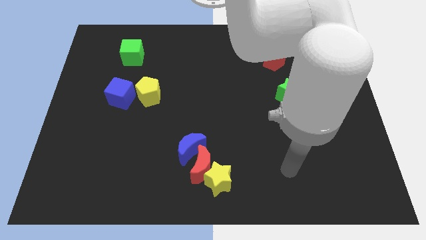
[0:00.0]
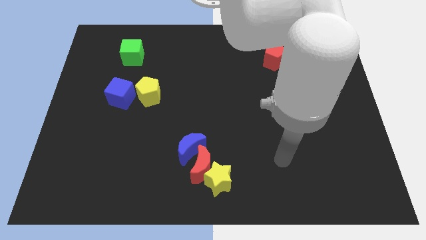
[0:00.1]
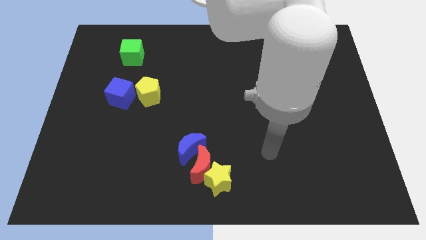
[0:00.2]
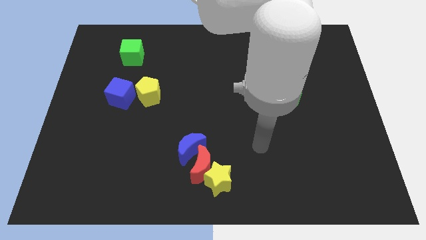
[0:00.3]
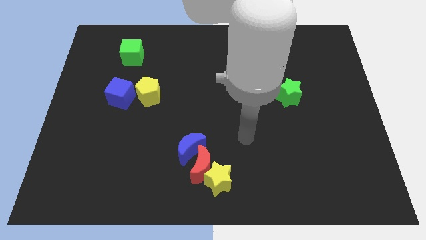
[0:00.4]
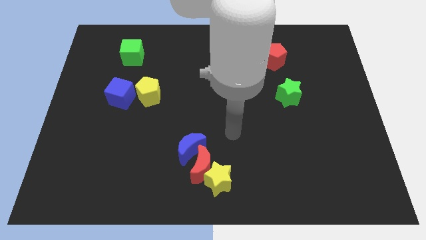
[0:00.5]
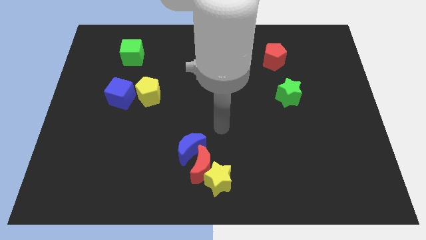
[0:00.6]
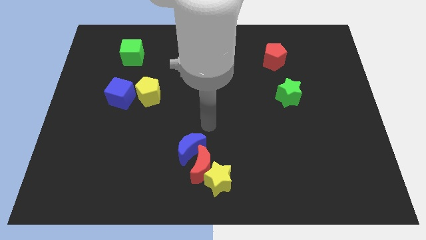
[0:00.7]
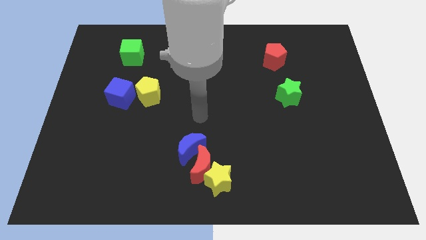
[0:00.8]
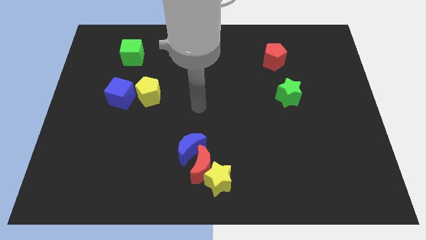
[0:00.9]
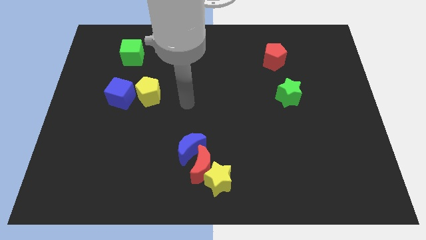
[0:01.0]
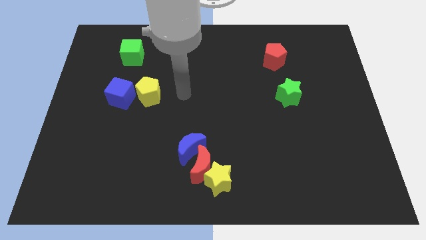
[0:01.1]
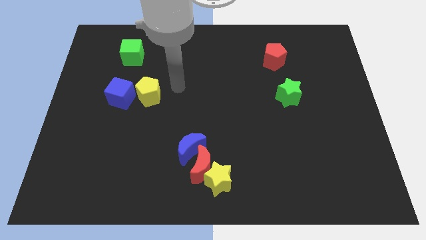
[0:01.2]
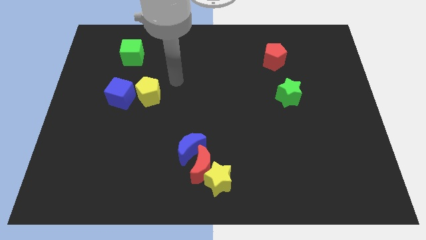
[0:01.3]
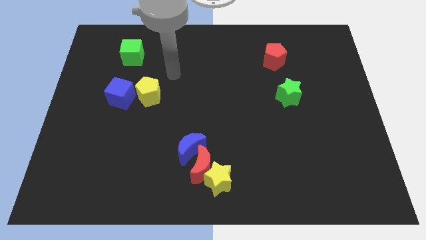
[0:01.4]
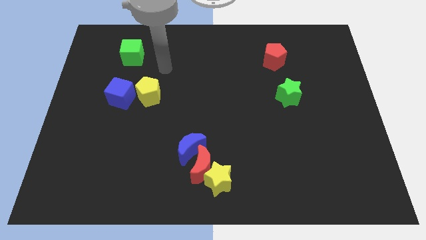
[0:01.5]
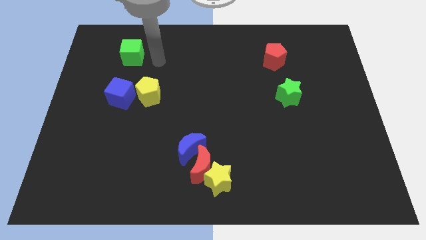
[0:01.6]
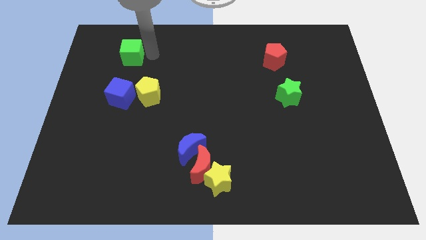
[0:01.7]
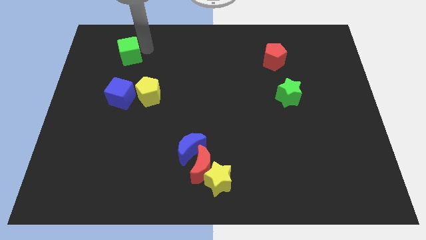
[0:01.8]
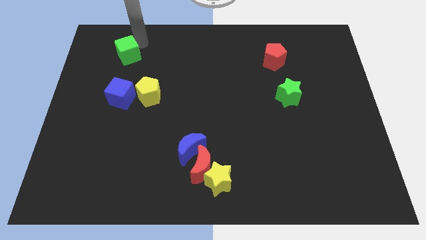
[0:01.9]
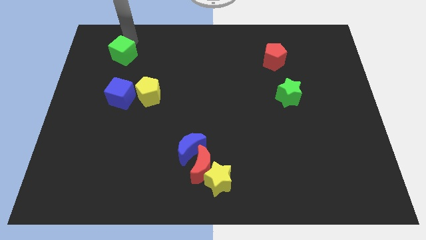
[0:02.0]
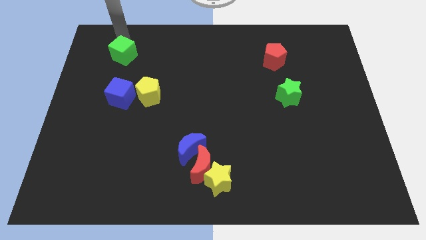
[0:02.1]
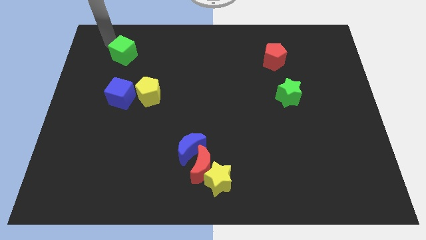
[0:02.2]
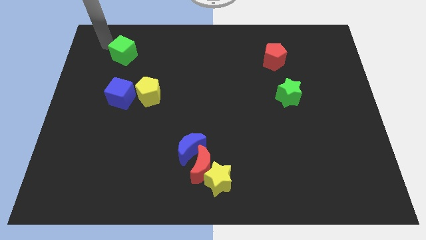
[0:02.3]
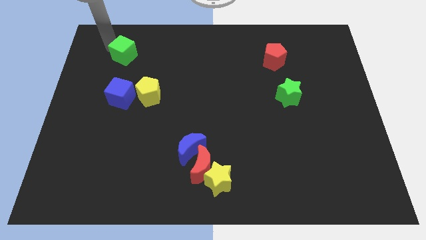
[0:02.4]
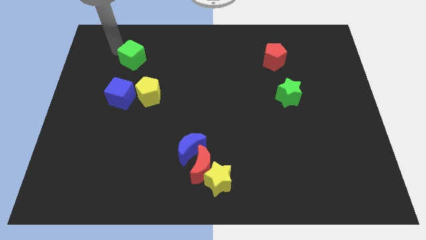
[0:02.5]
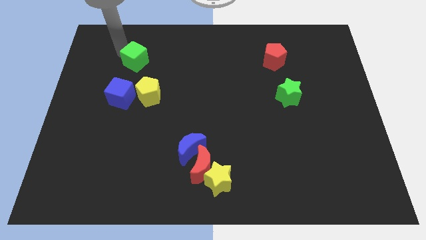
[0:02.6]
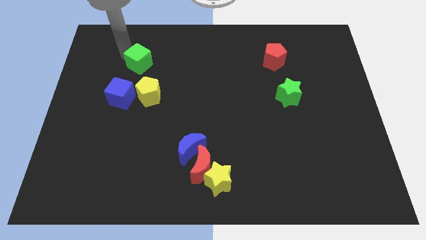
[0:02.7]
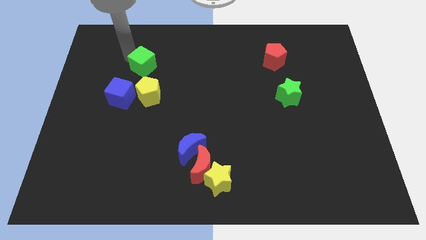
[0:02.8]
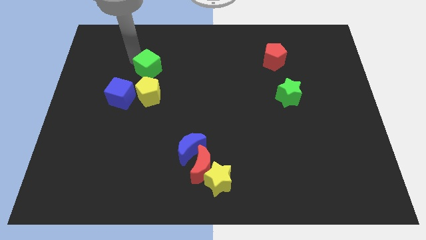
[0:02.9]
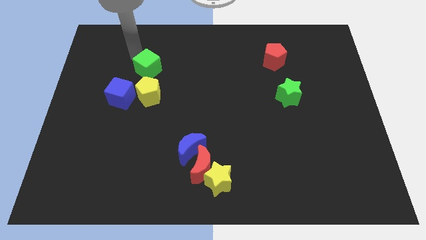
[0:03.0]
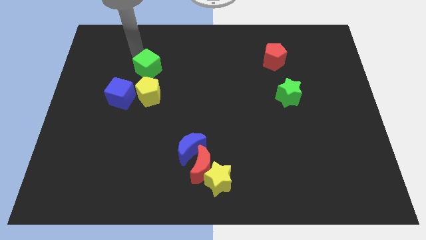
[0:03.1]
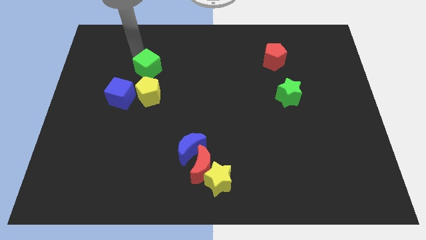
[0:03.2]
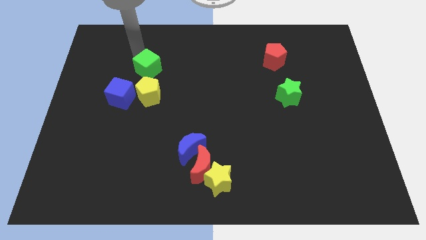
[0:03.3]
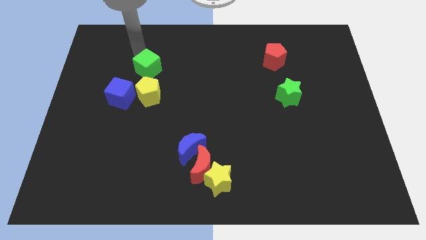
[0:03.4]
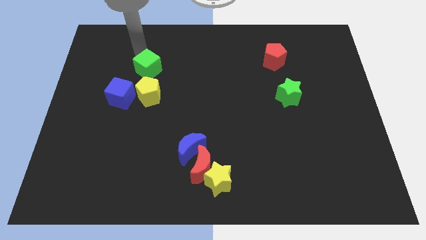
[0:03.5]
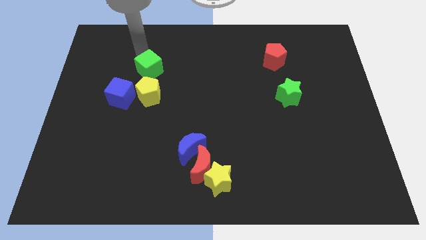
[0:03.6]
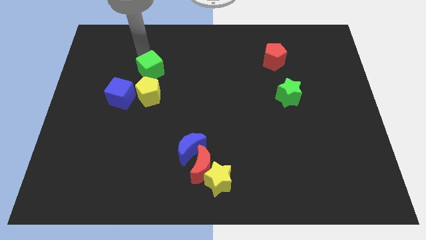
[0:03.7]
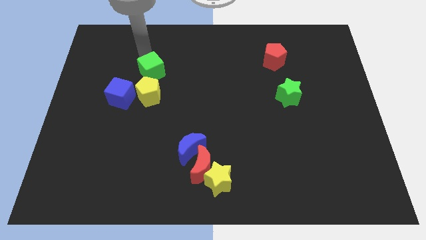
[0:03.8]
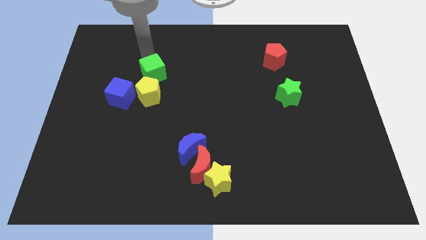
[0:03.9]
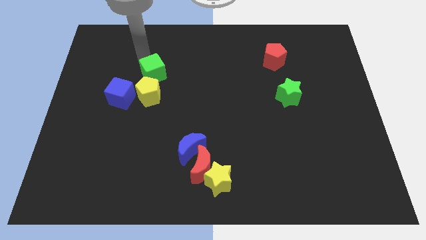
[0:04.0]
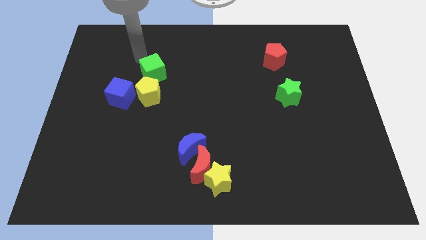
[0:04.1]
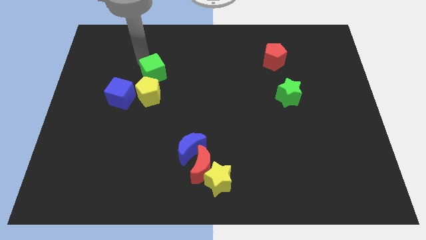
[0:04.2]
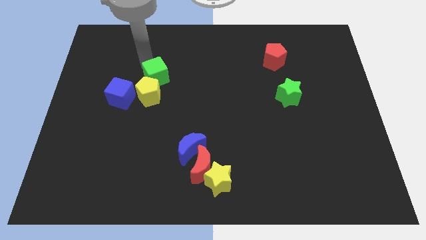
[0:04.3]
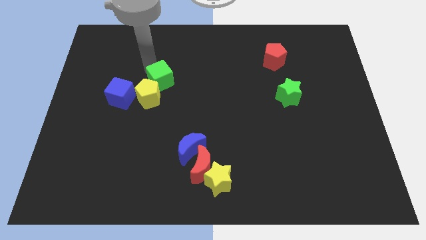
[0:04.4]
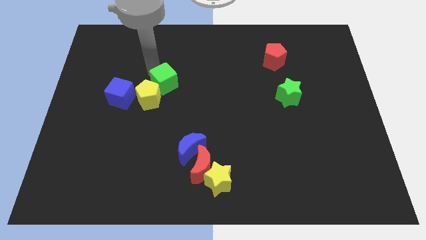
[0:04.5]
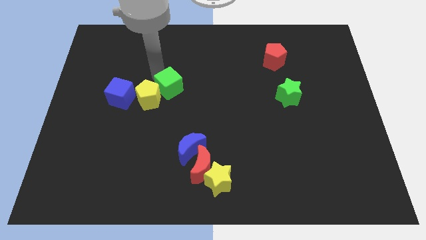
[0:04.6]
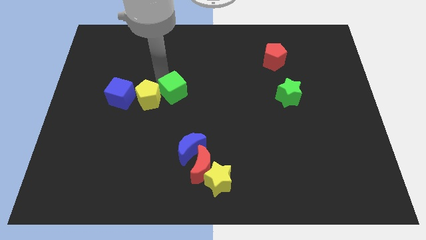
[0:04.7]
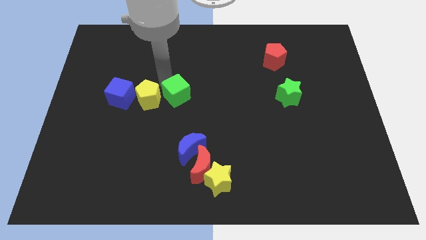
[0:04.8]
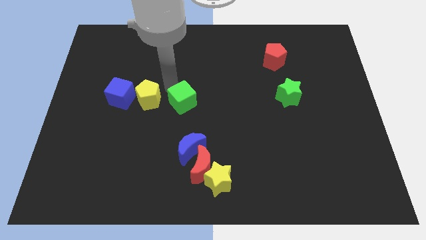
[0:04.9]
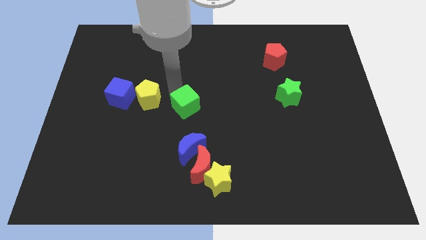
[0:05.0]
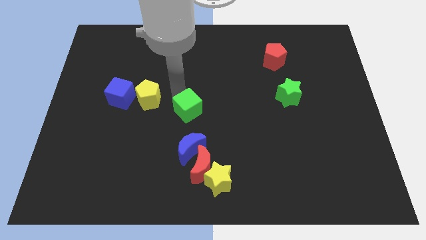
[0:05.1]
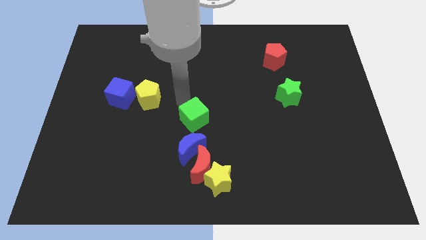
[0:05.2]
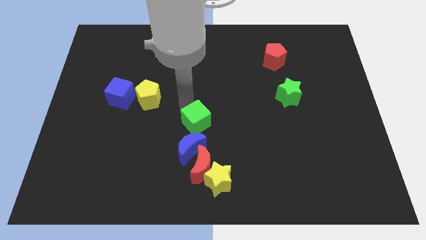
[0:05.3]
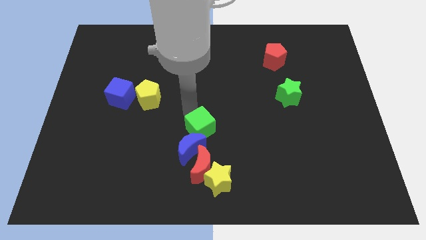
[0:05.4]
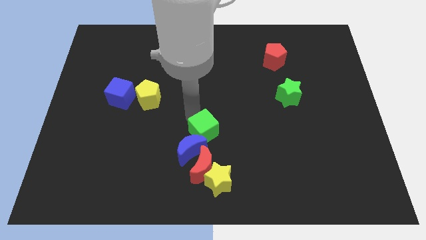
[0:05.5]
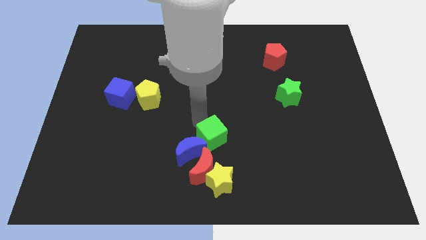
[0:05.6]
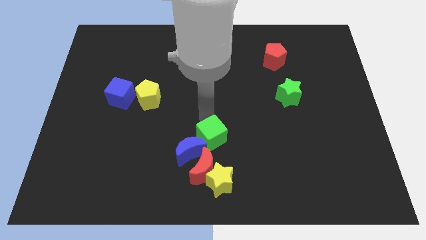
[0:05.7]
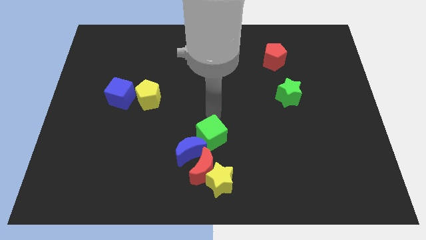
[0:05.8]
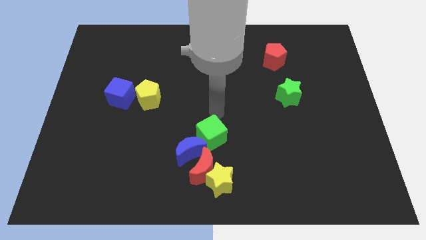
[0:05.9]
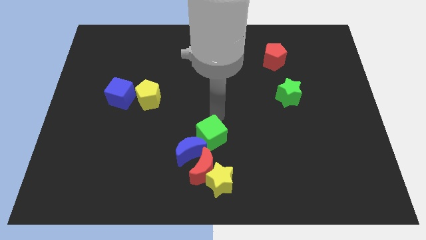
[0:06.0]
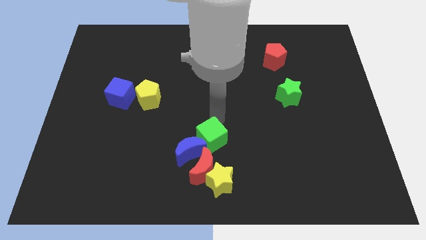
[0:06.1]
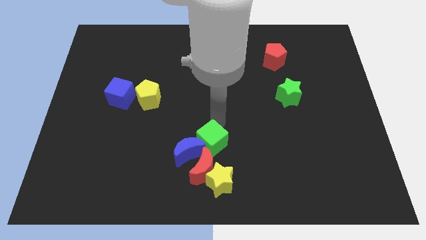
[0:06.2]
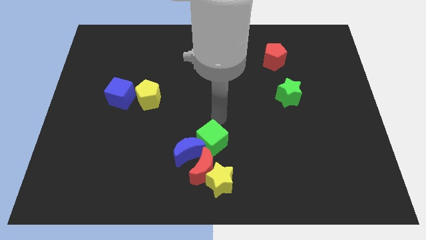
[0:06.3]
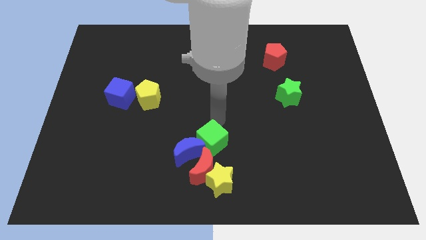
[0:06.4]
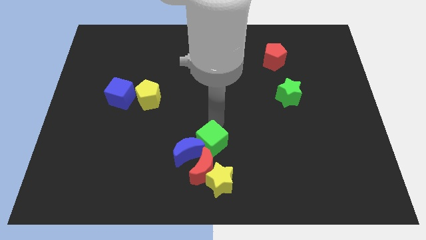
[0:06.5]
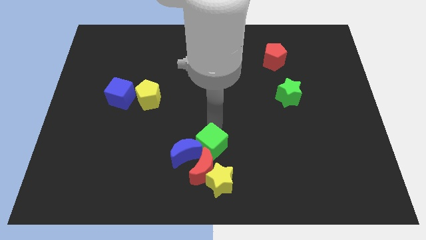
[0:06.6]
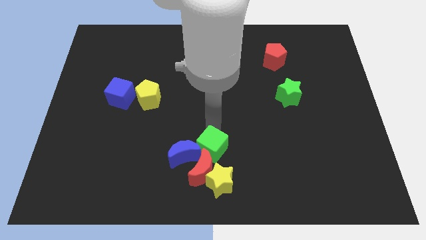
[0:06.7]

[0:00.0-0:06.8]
put the green cube next to the red moon

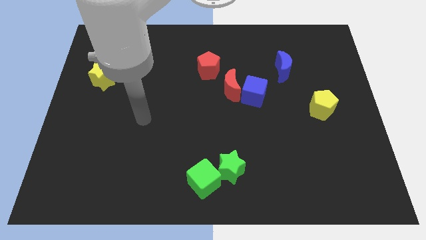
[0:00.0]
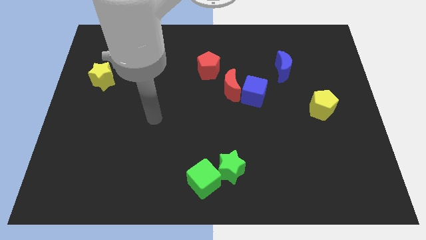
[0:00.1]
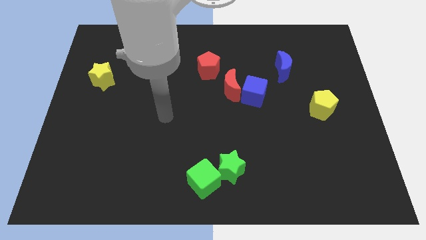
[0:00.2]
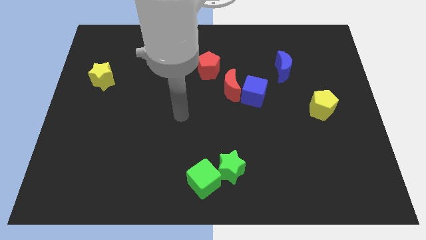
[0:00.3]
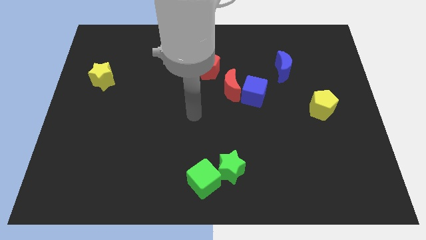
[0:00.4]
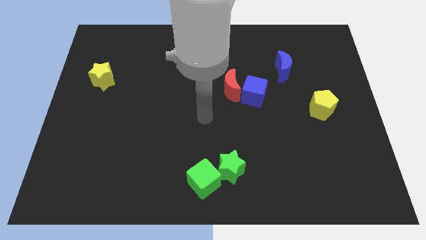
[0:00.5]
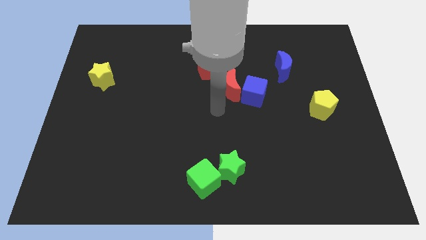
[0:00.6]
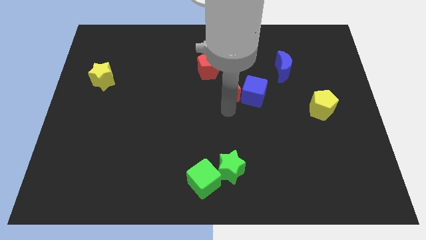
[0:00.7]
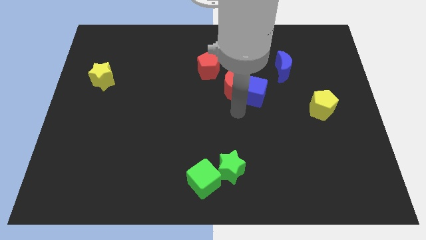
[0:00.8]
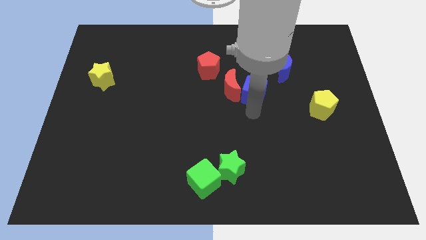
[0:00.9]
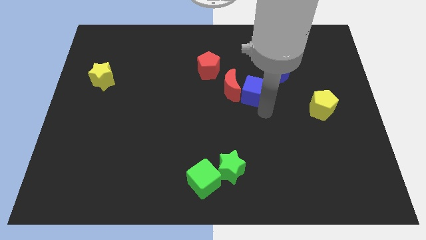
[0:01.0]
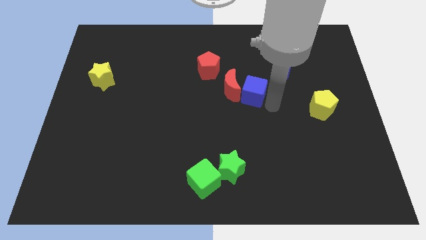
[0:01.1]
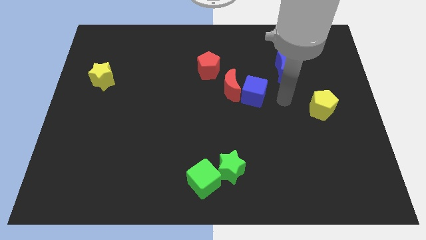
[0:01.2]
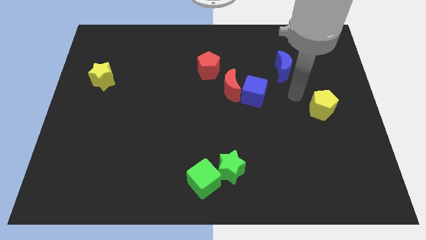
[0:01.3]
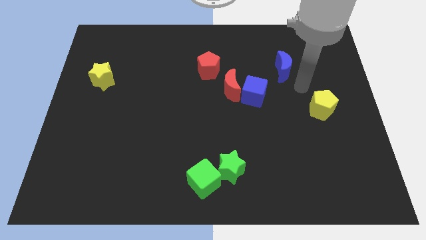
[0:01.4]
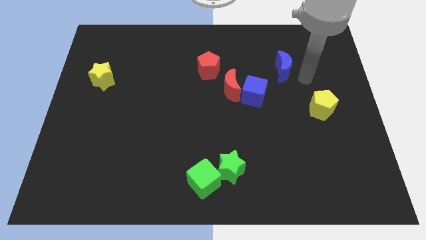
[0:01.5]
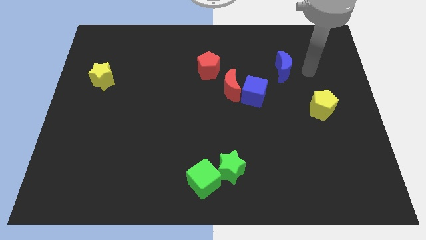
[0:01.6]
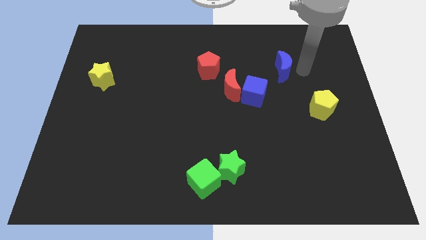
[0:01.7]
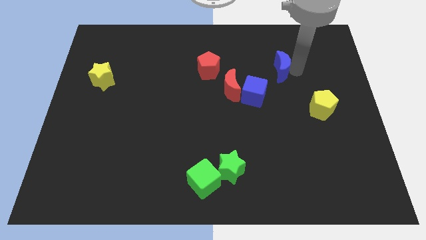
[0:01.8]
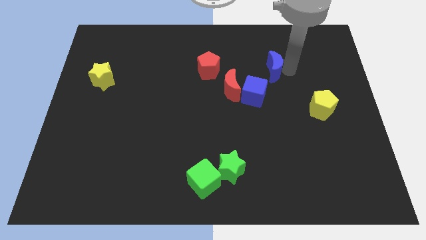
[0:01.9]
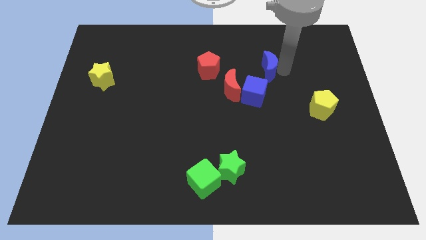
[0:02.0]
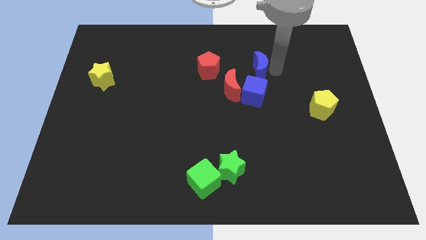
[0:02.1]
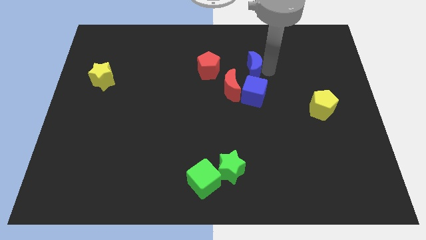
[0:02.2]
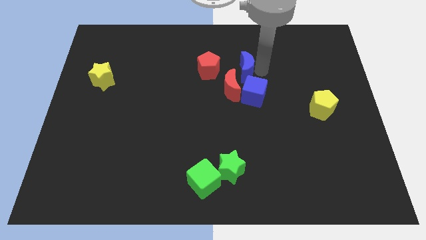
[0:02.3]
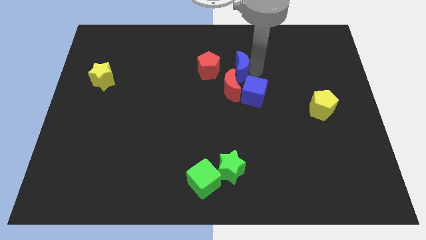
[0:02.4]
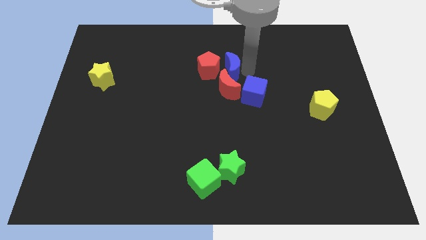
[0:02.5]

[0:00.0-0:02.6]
push the blue moon next to the red pentagon
